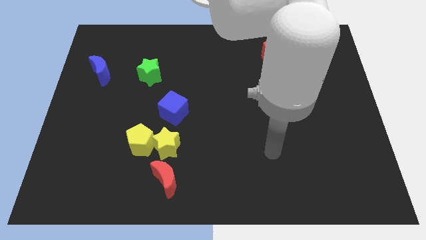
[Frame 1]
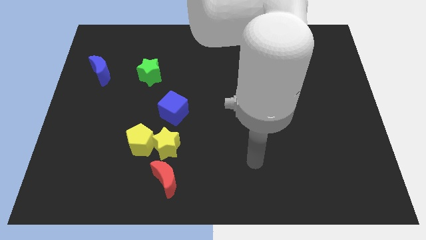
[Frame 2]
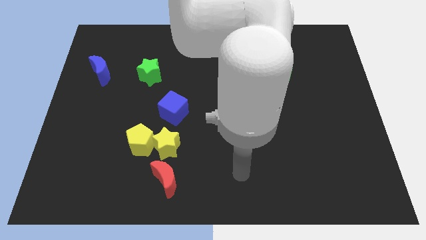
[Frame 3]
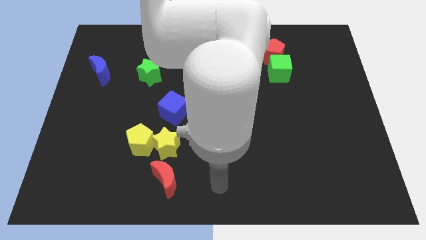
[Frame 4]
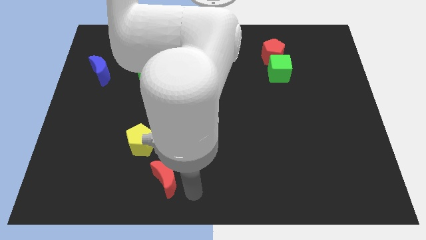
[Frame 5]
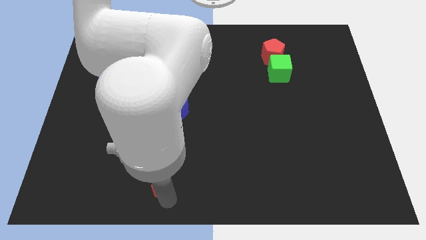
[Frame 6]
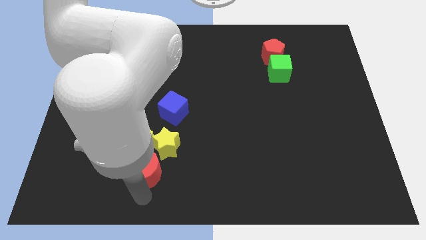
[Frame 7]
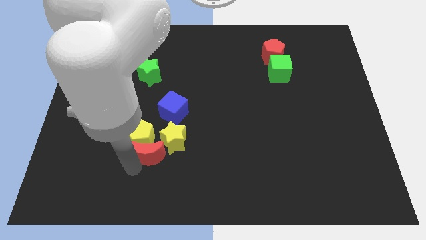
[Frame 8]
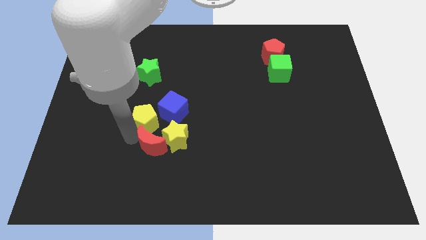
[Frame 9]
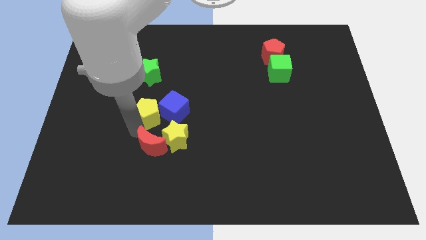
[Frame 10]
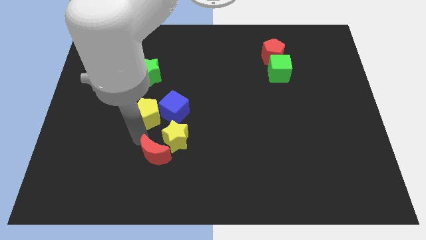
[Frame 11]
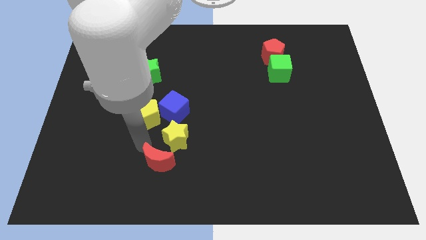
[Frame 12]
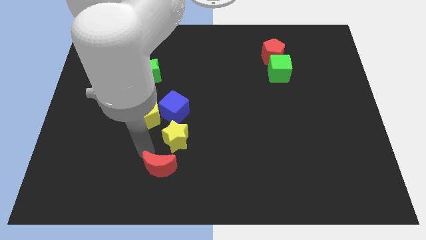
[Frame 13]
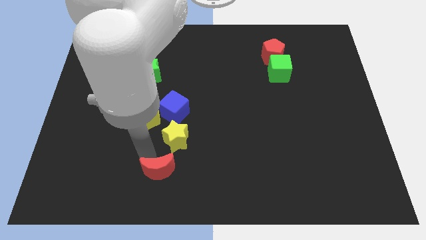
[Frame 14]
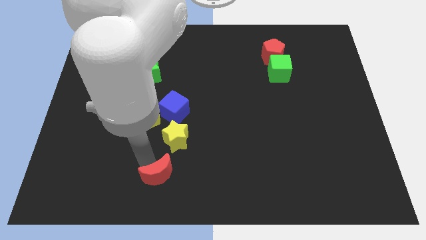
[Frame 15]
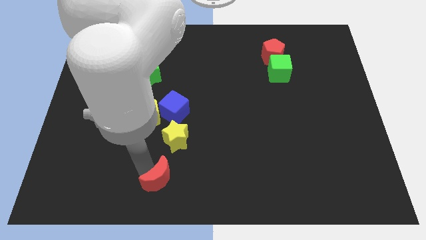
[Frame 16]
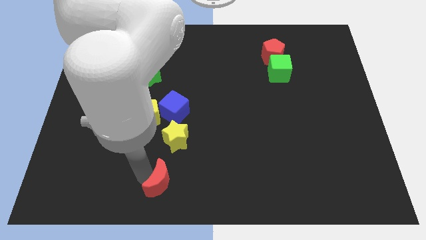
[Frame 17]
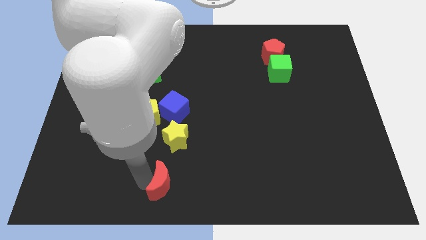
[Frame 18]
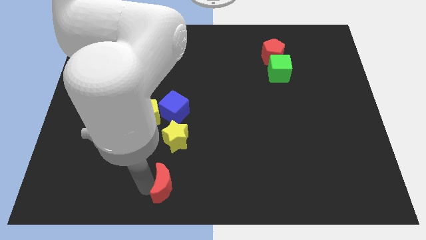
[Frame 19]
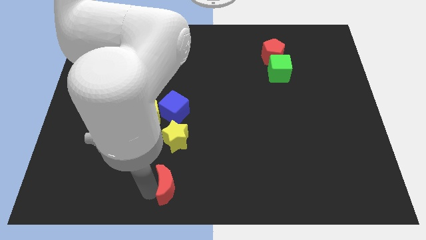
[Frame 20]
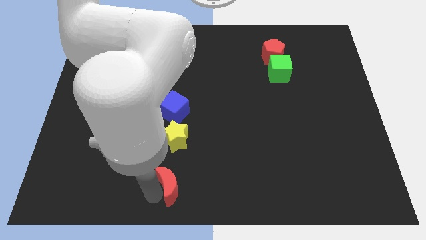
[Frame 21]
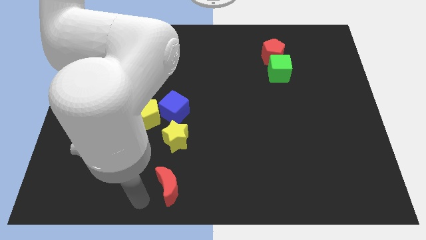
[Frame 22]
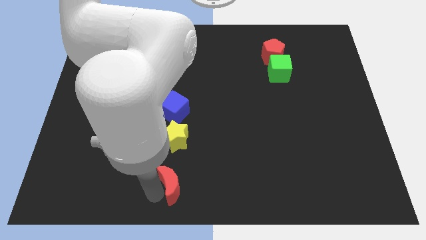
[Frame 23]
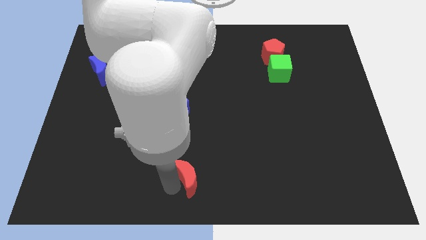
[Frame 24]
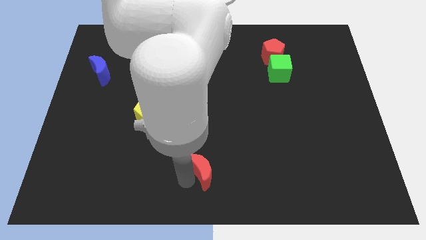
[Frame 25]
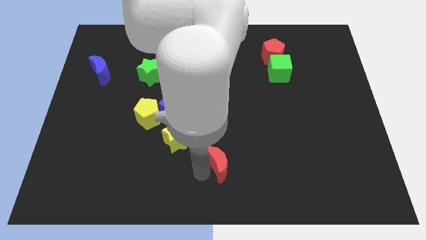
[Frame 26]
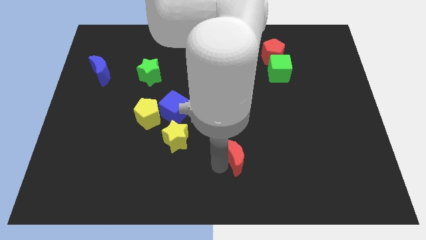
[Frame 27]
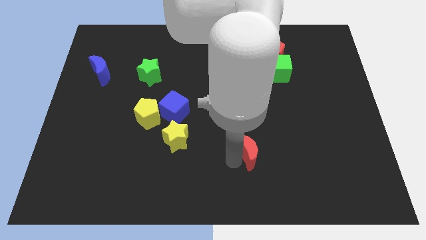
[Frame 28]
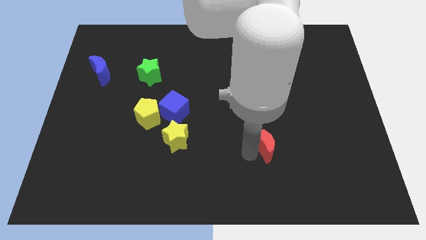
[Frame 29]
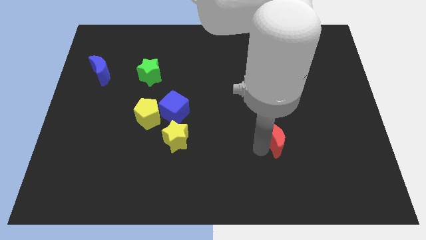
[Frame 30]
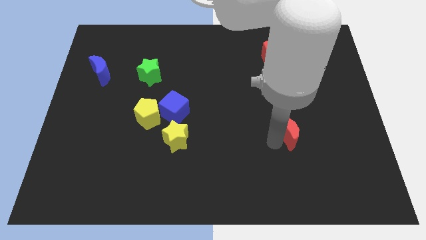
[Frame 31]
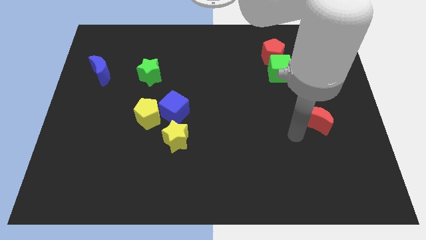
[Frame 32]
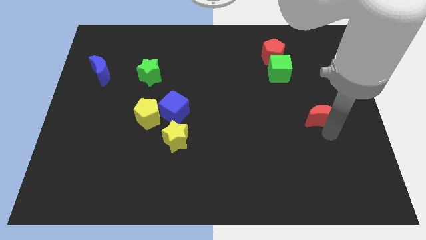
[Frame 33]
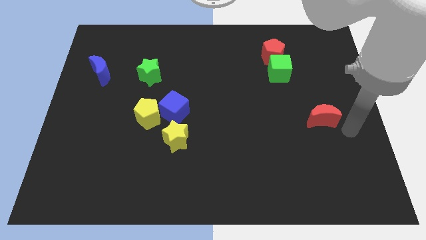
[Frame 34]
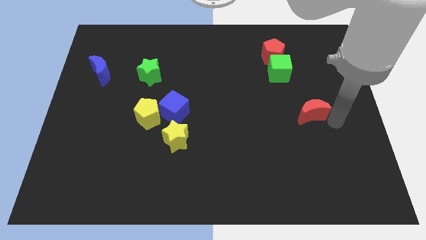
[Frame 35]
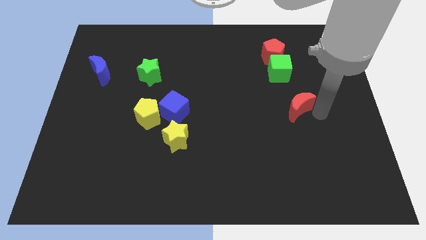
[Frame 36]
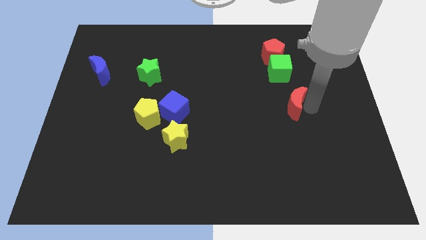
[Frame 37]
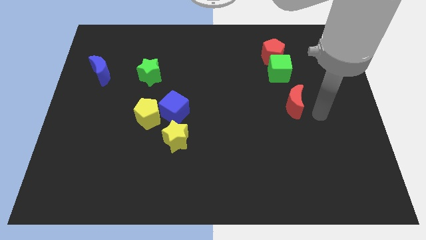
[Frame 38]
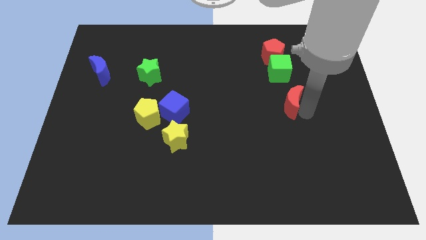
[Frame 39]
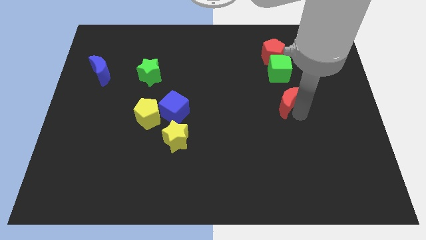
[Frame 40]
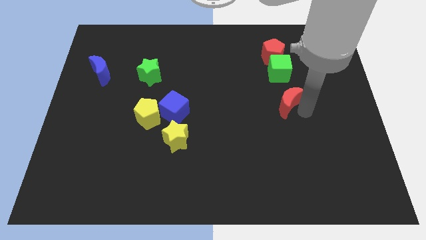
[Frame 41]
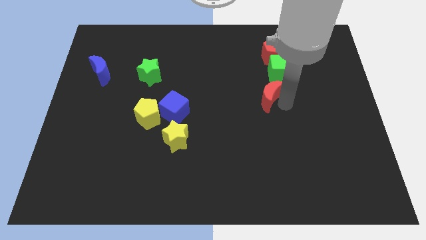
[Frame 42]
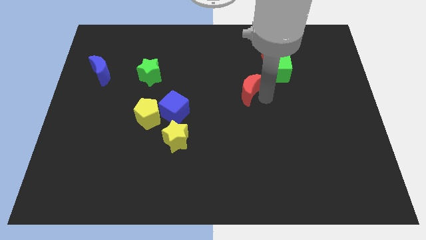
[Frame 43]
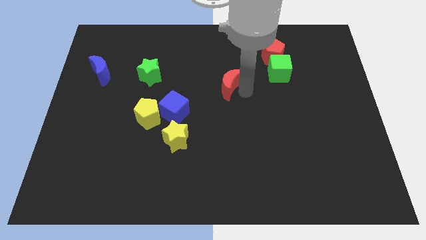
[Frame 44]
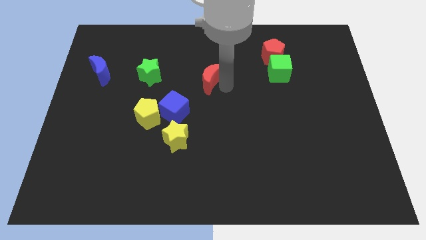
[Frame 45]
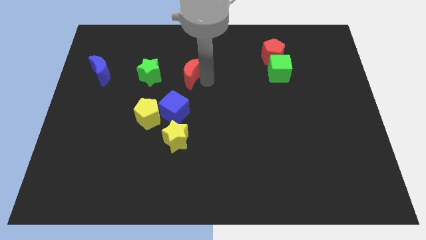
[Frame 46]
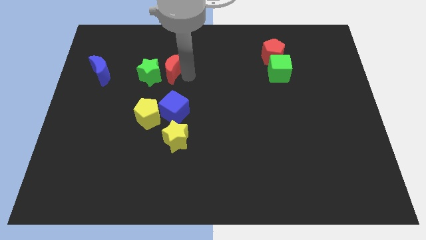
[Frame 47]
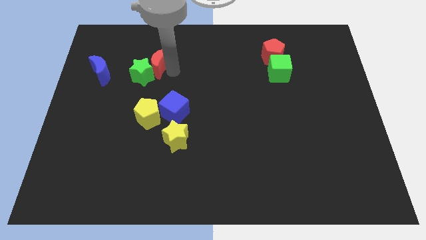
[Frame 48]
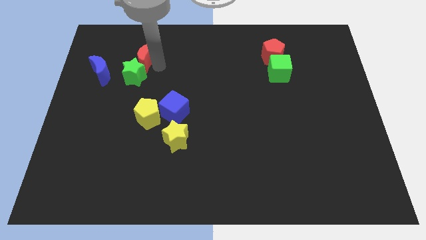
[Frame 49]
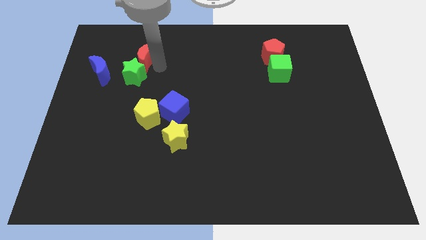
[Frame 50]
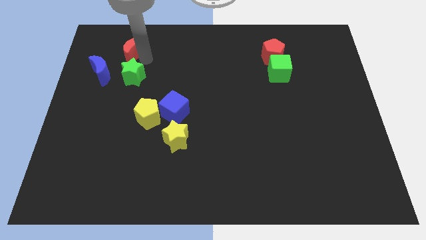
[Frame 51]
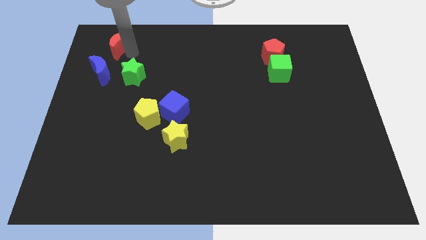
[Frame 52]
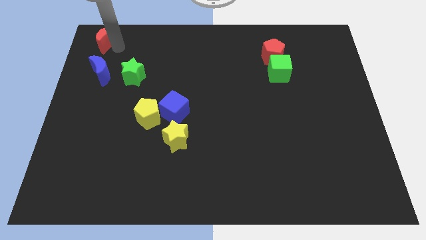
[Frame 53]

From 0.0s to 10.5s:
slide the red moon to the top left

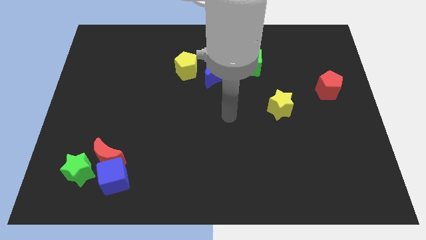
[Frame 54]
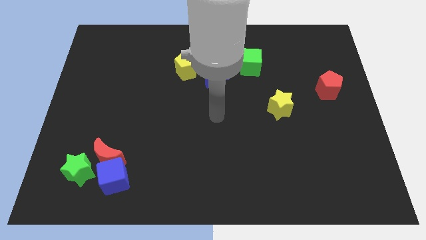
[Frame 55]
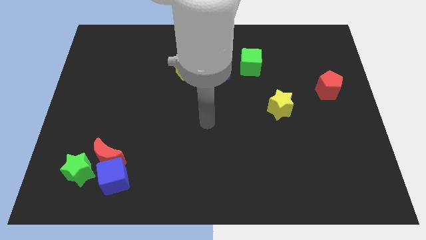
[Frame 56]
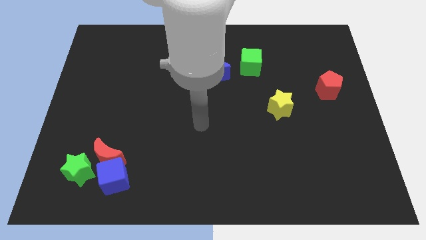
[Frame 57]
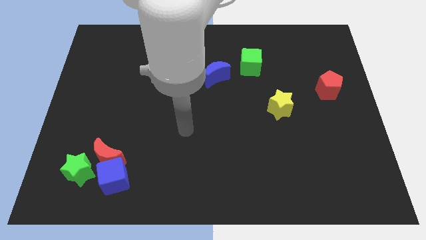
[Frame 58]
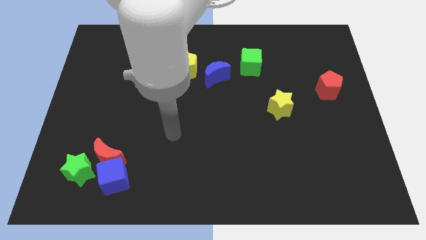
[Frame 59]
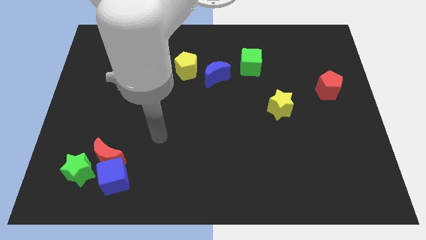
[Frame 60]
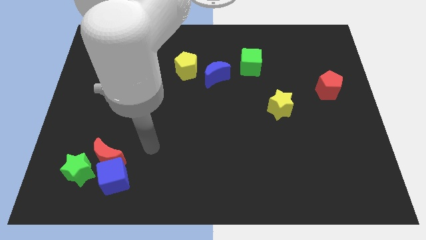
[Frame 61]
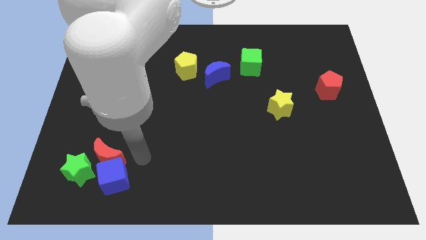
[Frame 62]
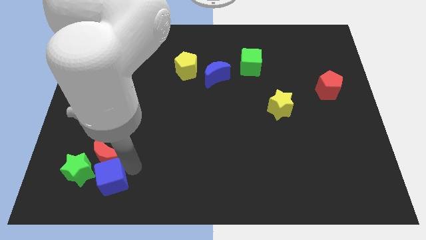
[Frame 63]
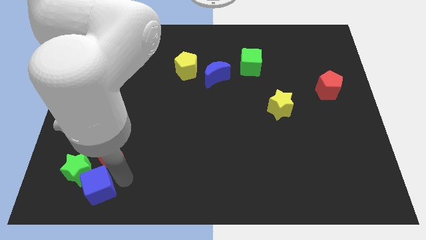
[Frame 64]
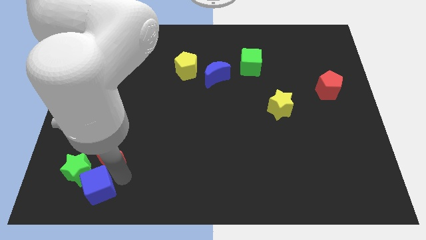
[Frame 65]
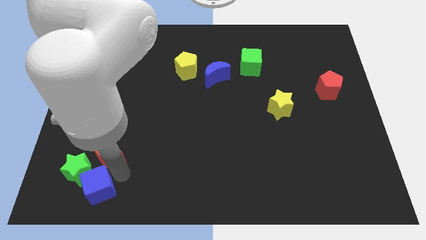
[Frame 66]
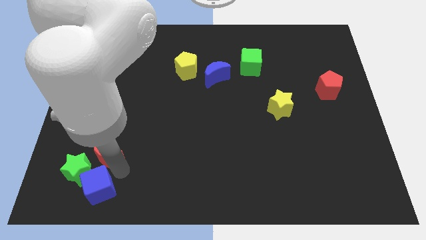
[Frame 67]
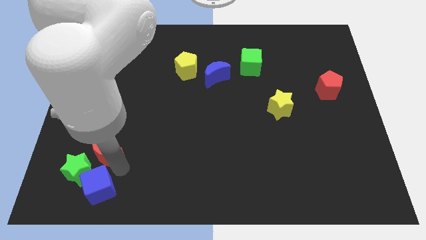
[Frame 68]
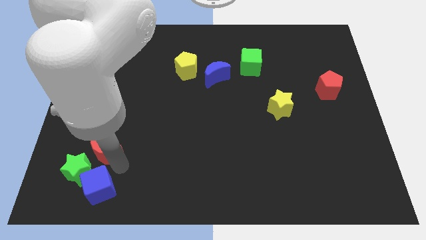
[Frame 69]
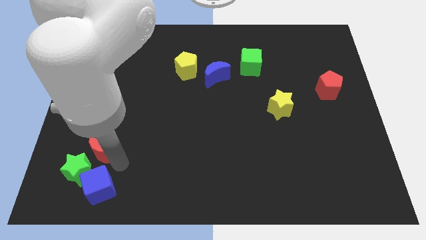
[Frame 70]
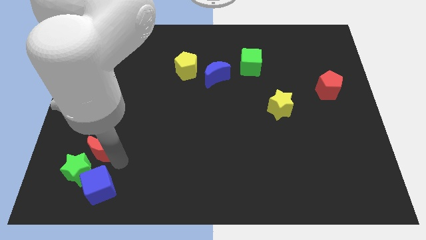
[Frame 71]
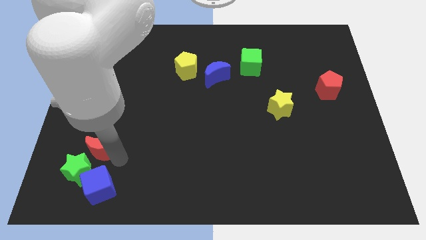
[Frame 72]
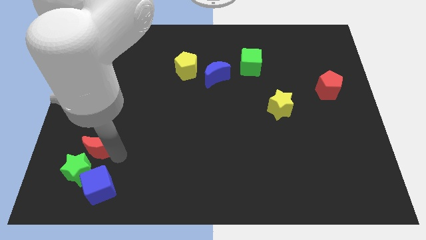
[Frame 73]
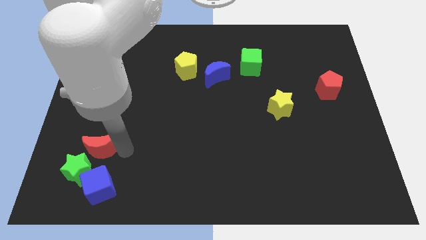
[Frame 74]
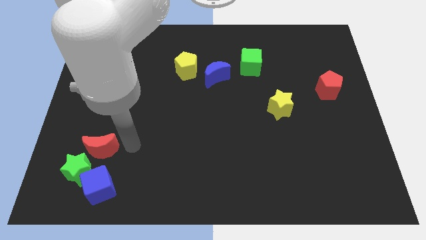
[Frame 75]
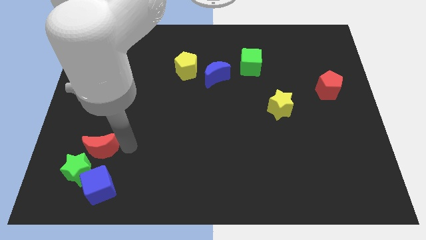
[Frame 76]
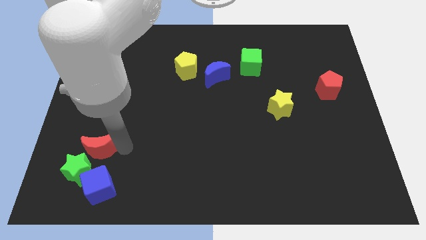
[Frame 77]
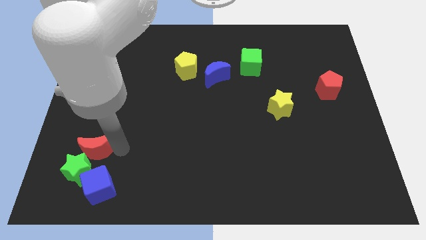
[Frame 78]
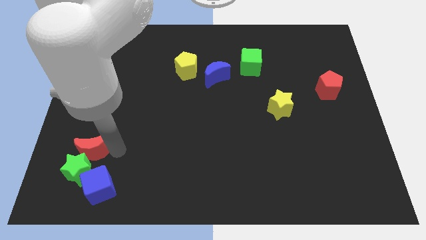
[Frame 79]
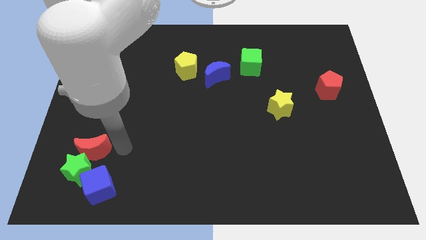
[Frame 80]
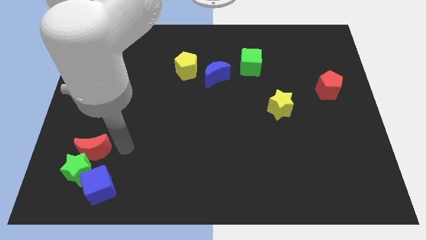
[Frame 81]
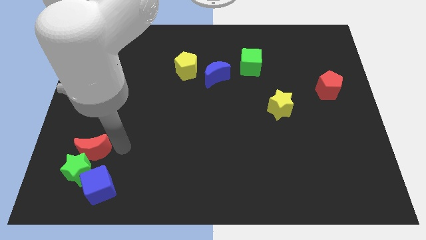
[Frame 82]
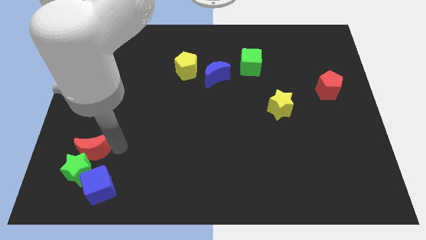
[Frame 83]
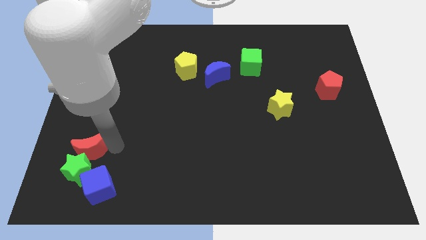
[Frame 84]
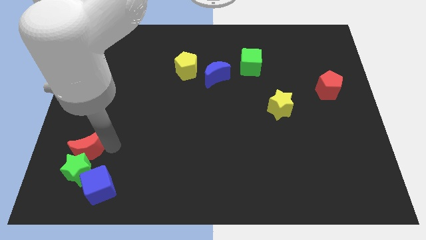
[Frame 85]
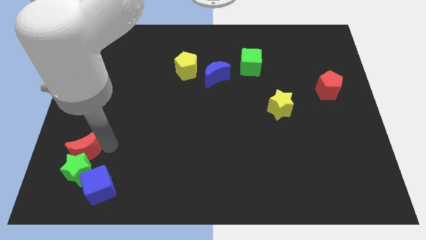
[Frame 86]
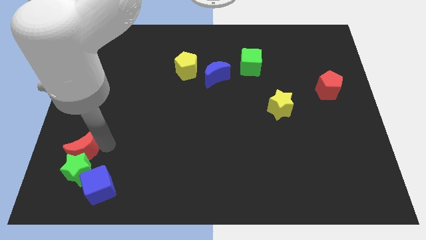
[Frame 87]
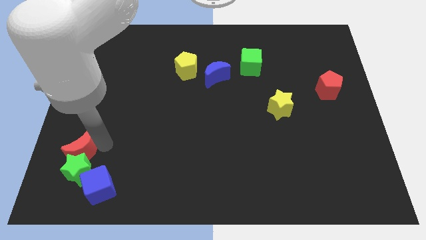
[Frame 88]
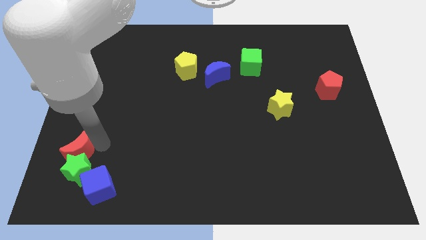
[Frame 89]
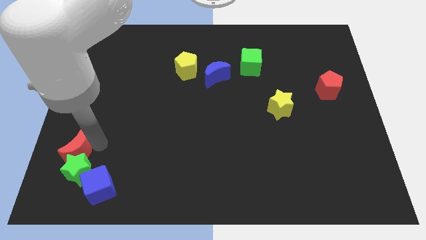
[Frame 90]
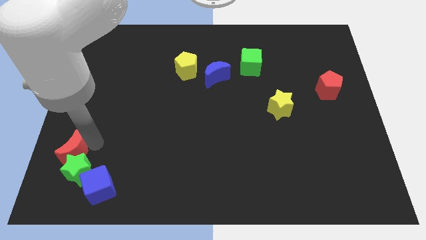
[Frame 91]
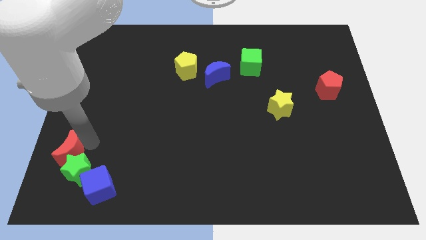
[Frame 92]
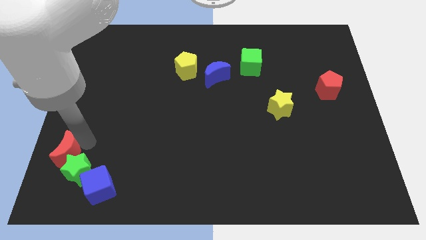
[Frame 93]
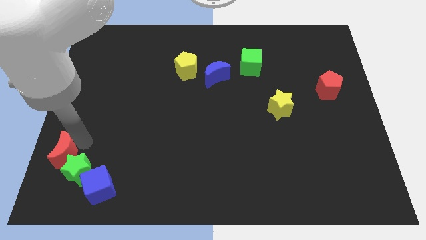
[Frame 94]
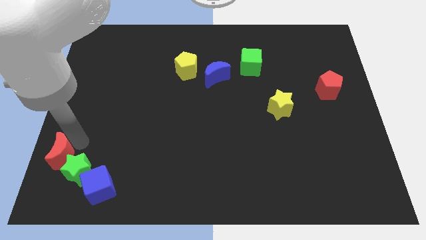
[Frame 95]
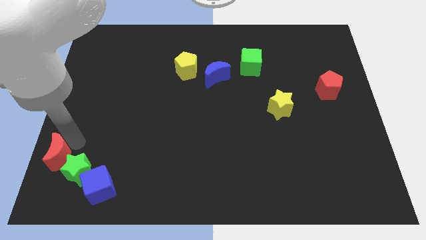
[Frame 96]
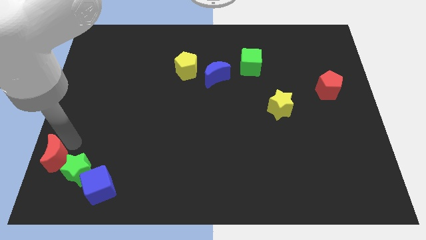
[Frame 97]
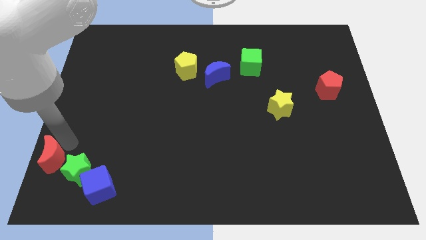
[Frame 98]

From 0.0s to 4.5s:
slide the red moon to the bottom left
